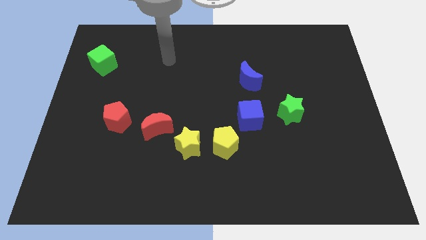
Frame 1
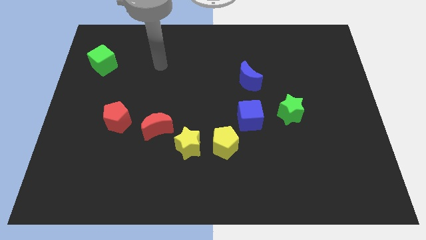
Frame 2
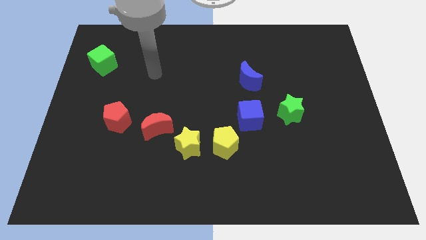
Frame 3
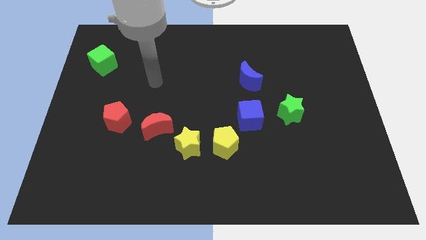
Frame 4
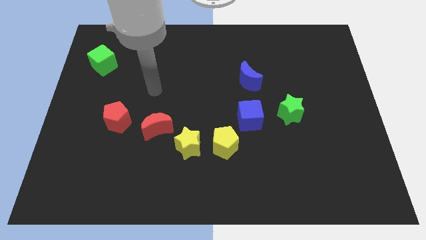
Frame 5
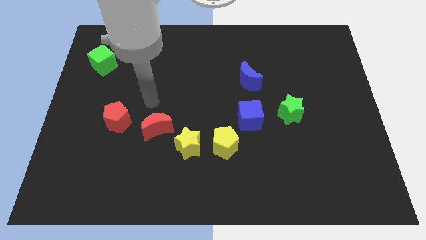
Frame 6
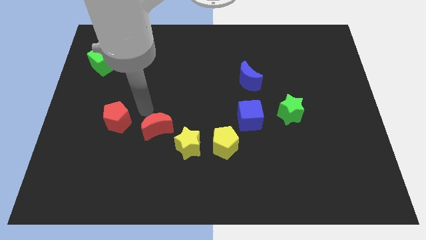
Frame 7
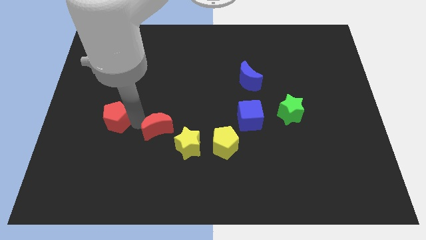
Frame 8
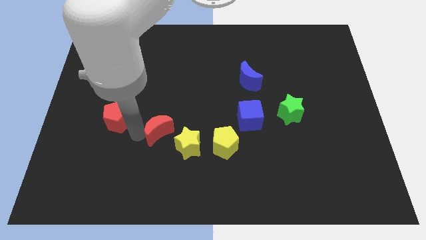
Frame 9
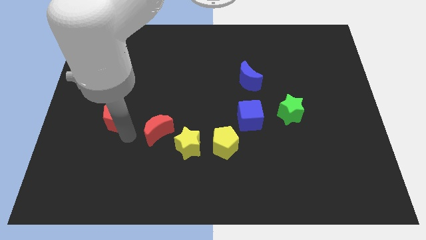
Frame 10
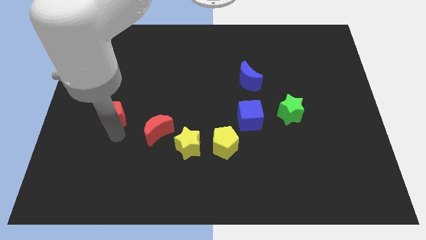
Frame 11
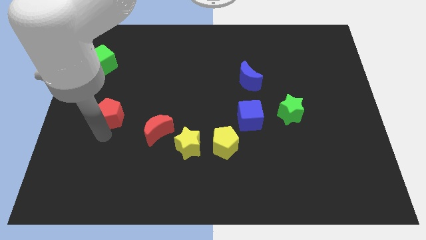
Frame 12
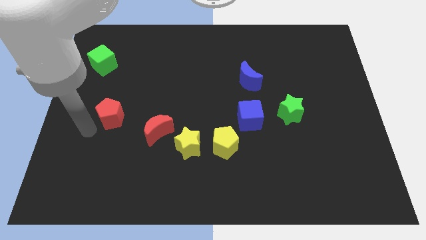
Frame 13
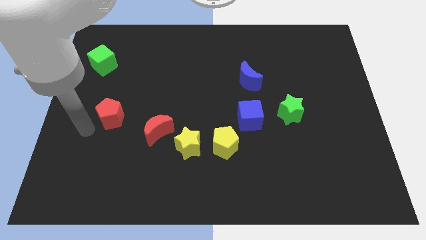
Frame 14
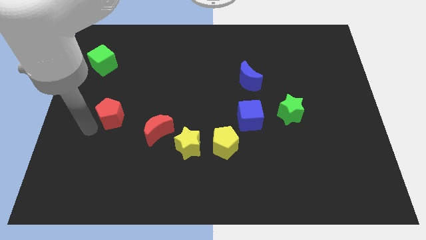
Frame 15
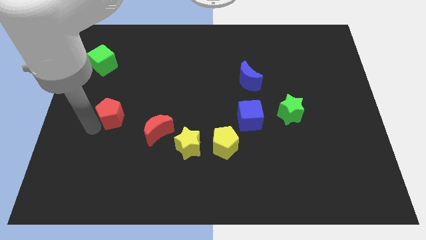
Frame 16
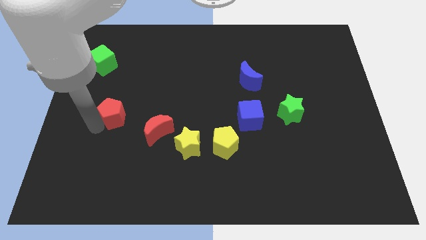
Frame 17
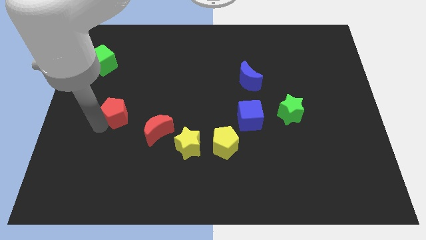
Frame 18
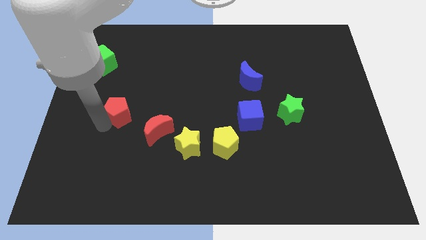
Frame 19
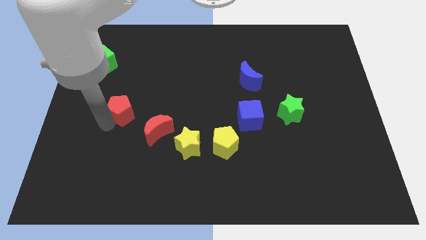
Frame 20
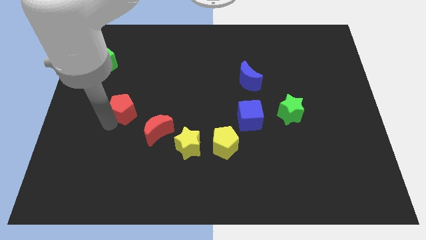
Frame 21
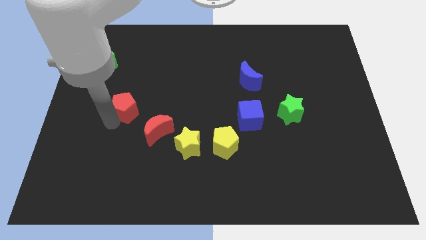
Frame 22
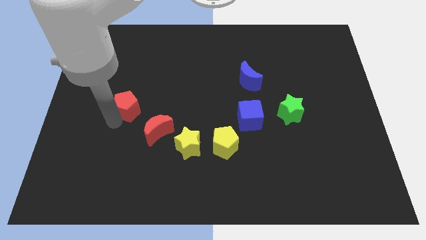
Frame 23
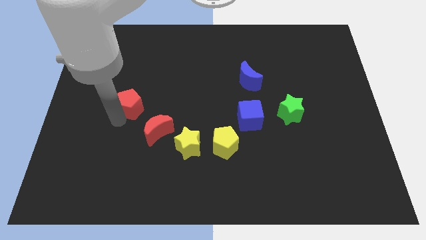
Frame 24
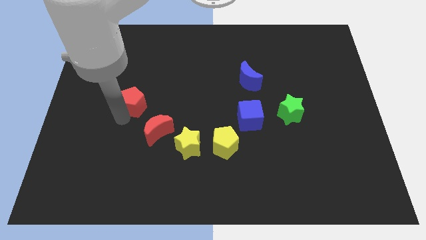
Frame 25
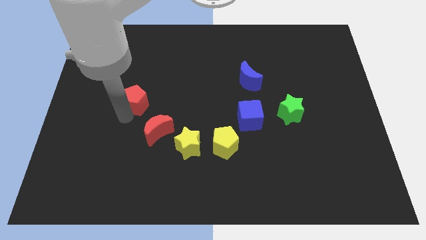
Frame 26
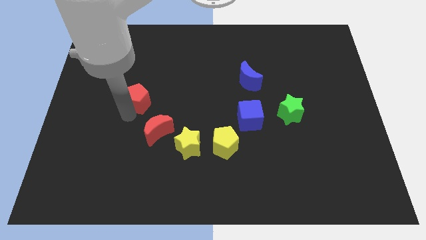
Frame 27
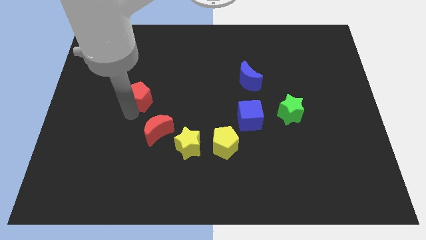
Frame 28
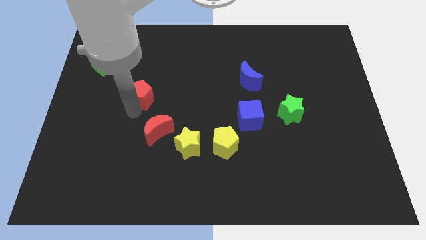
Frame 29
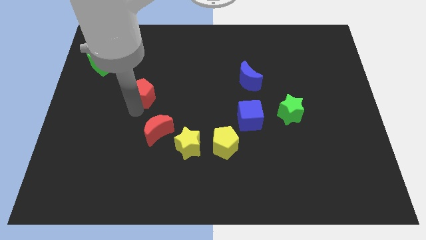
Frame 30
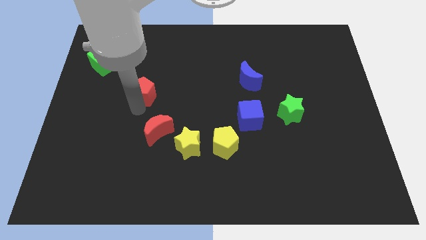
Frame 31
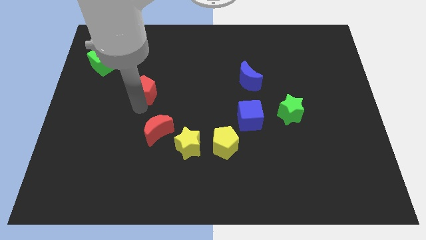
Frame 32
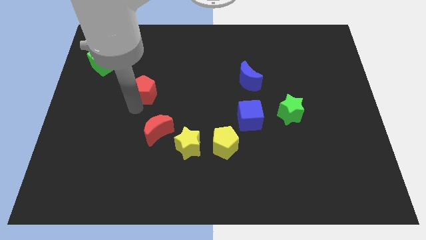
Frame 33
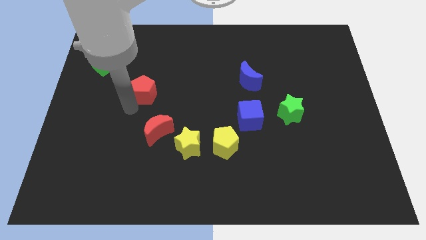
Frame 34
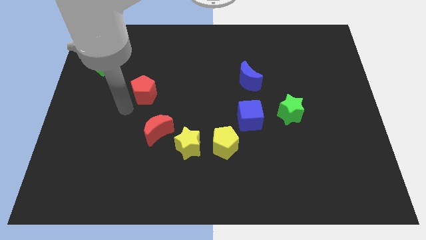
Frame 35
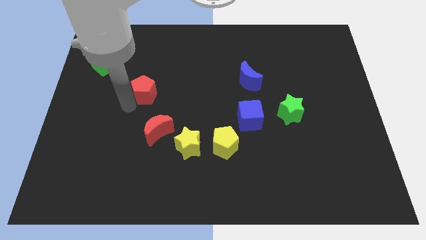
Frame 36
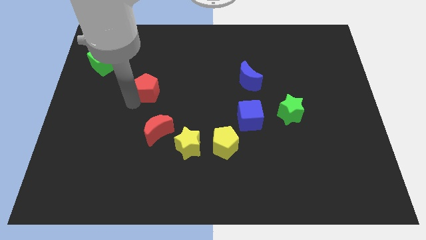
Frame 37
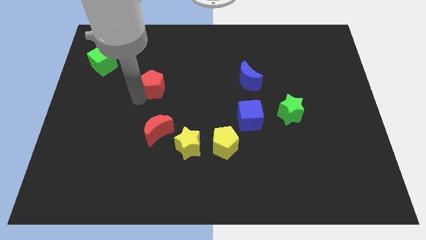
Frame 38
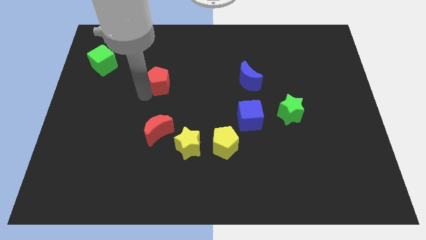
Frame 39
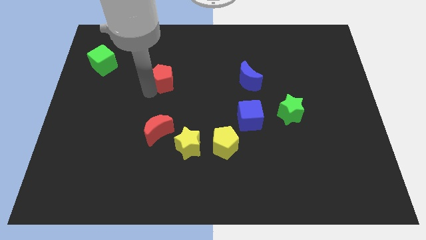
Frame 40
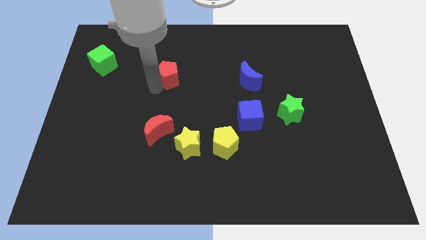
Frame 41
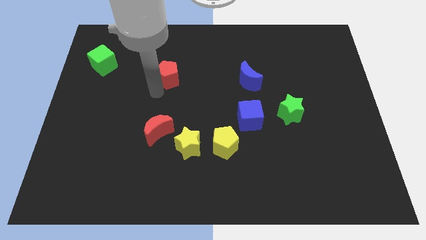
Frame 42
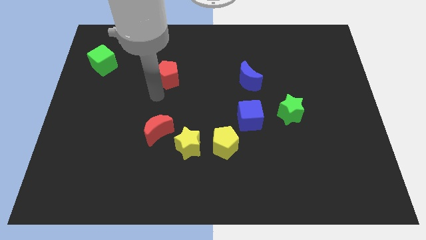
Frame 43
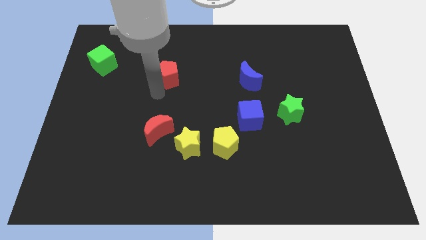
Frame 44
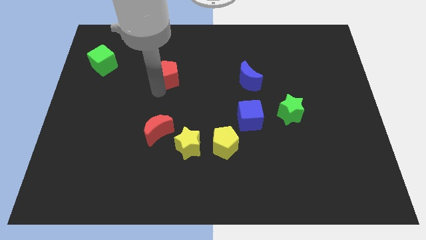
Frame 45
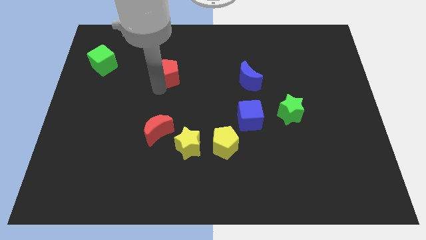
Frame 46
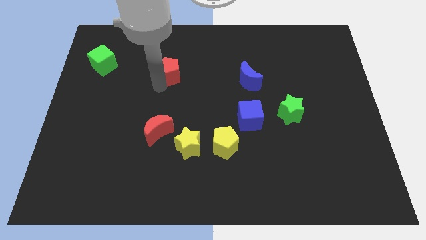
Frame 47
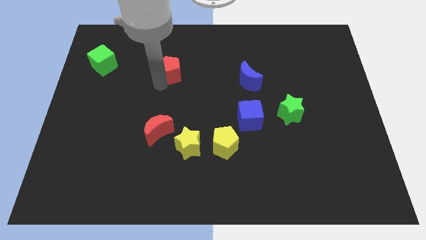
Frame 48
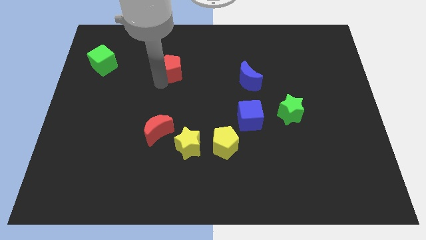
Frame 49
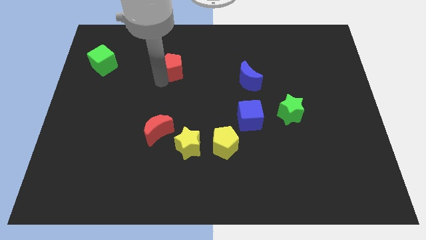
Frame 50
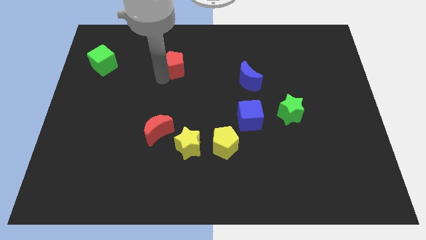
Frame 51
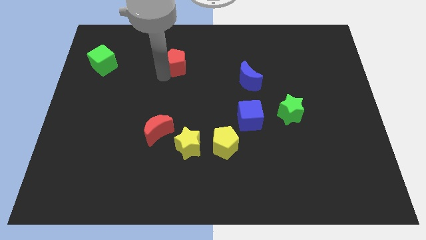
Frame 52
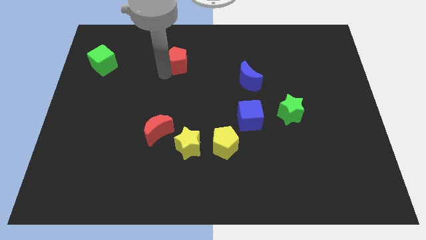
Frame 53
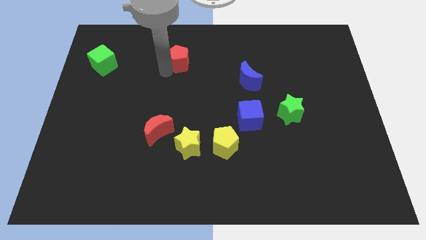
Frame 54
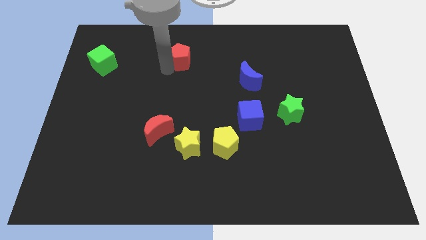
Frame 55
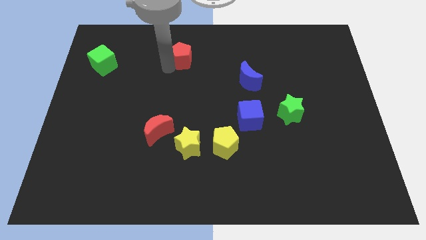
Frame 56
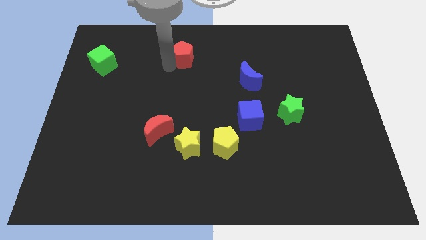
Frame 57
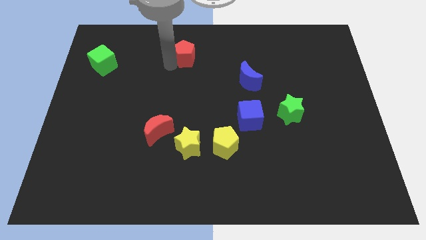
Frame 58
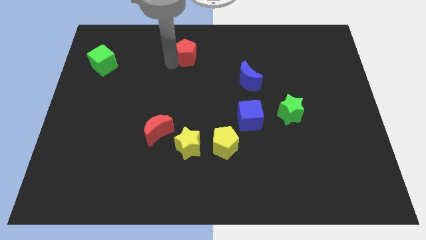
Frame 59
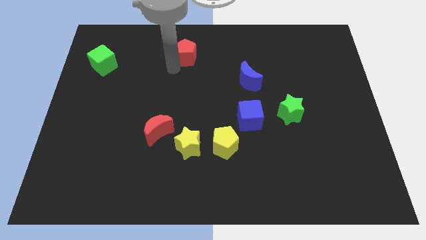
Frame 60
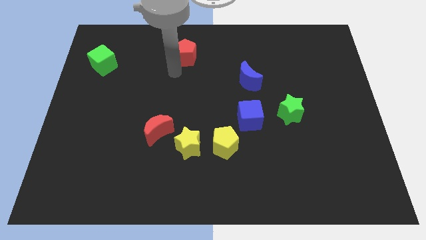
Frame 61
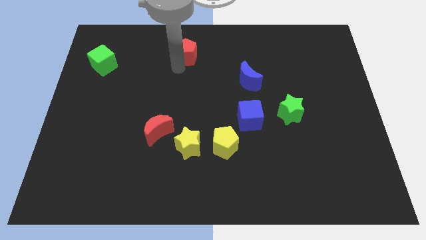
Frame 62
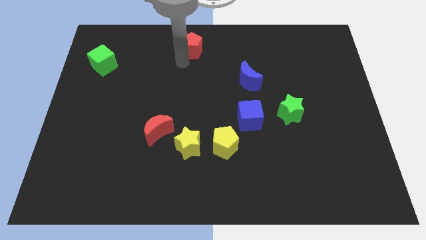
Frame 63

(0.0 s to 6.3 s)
put the red pentagon to the towards your base

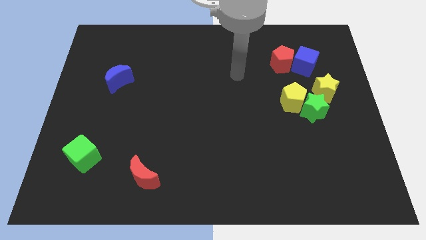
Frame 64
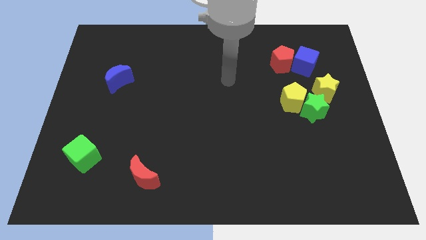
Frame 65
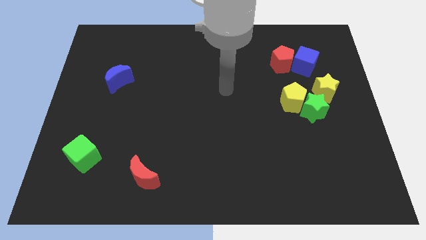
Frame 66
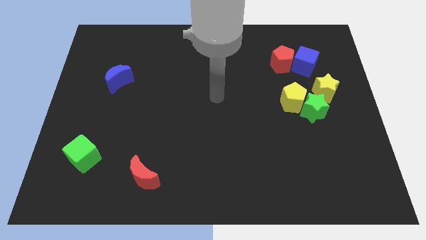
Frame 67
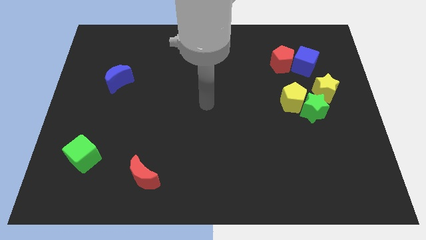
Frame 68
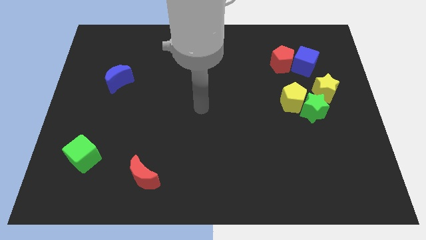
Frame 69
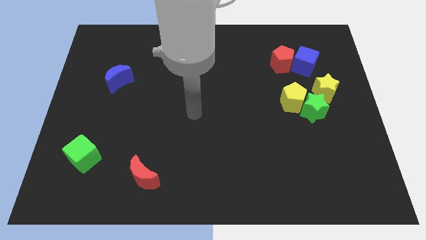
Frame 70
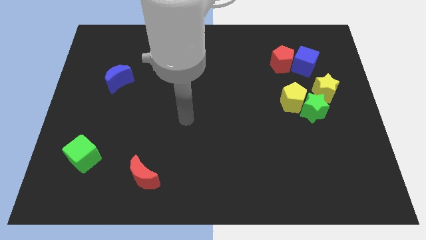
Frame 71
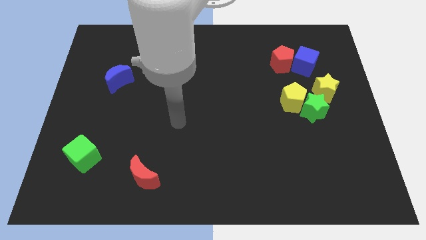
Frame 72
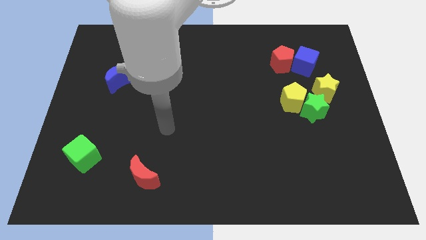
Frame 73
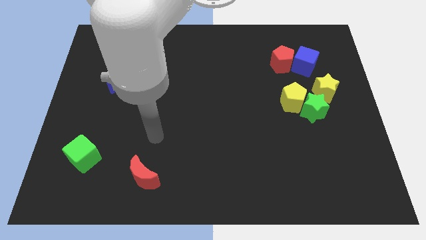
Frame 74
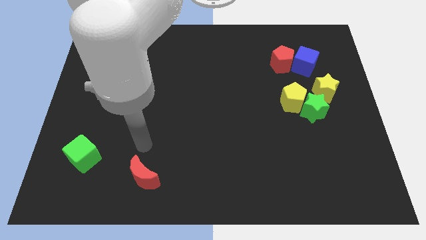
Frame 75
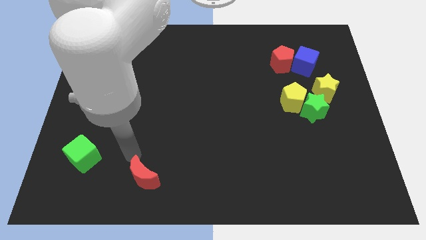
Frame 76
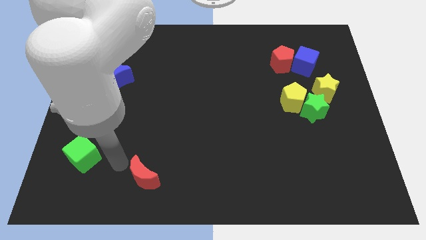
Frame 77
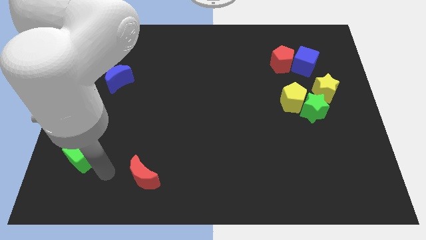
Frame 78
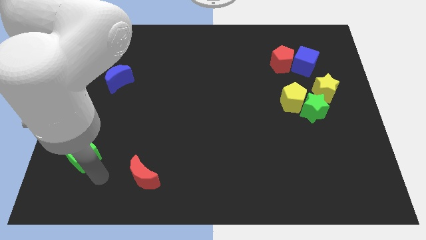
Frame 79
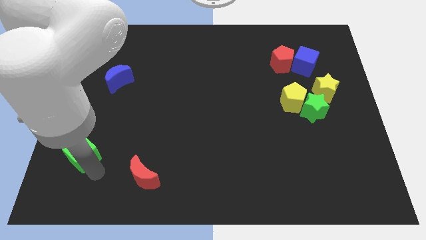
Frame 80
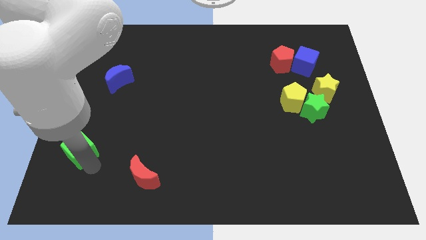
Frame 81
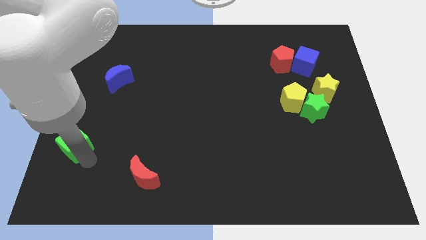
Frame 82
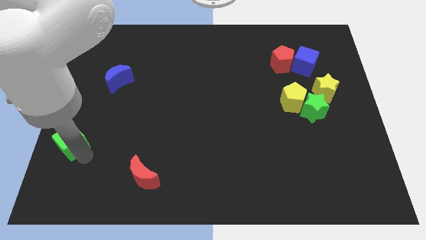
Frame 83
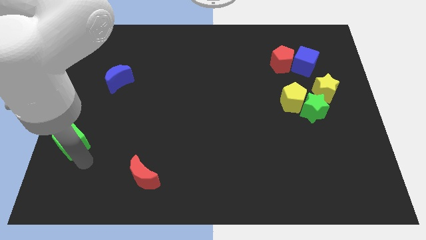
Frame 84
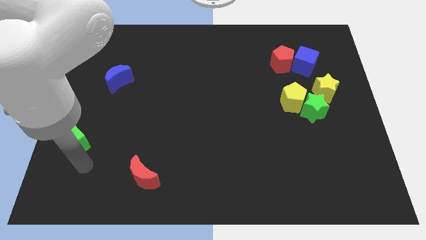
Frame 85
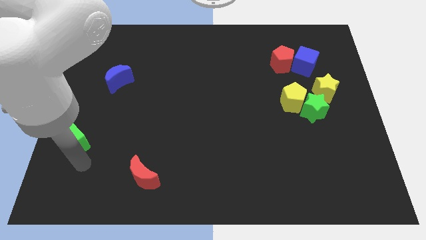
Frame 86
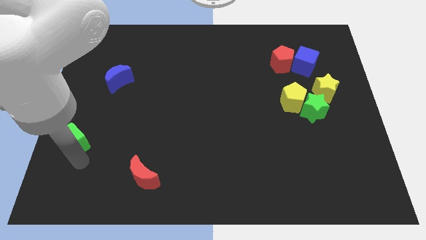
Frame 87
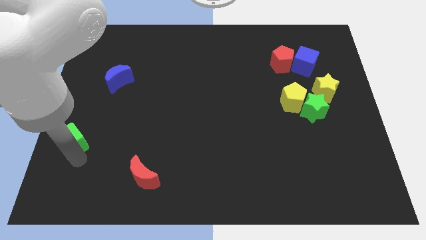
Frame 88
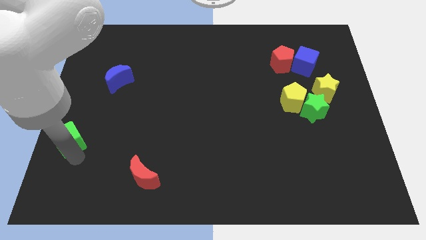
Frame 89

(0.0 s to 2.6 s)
slide the green cube to the left side
